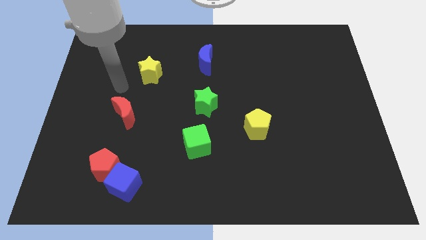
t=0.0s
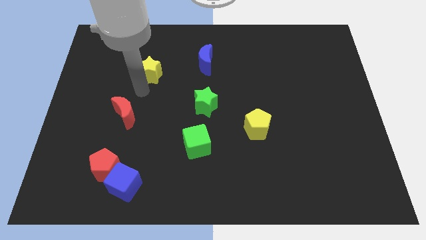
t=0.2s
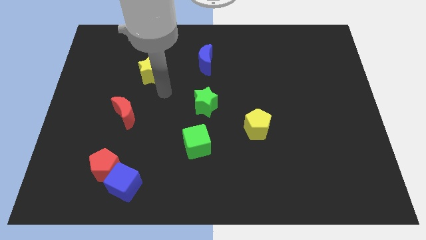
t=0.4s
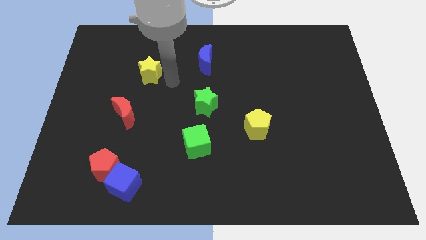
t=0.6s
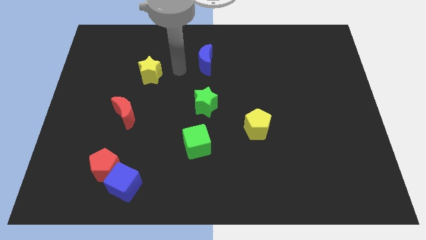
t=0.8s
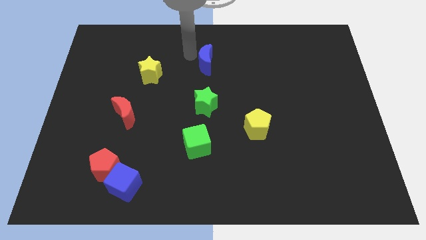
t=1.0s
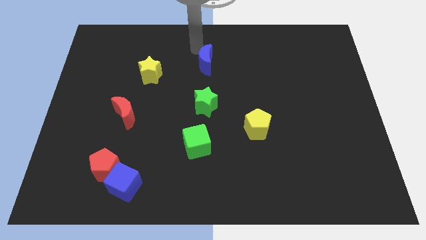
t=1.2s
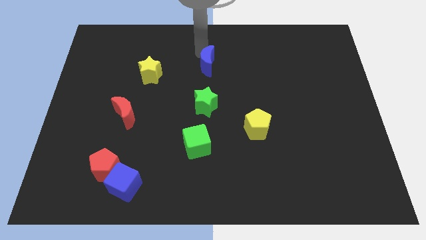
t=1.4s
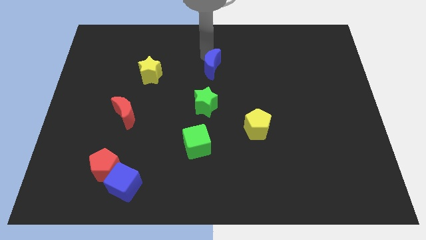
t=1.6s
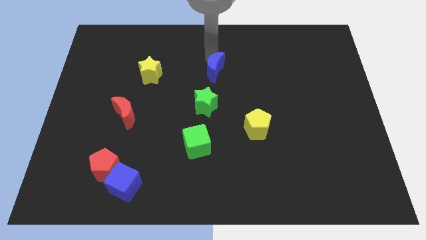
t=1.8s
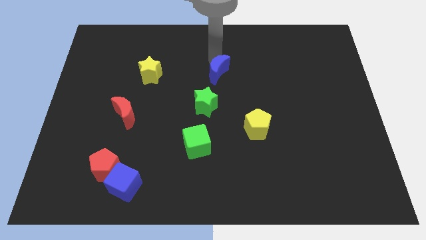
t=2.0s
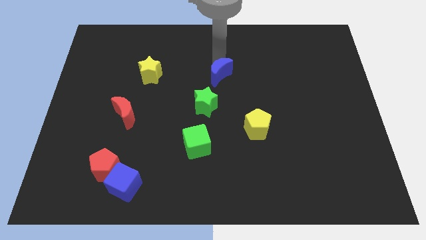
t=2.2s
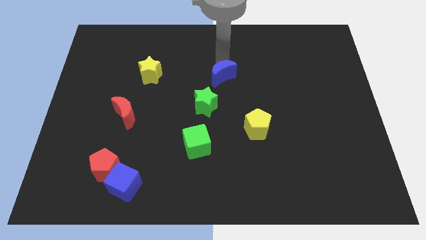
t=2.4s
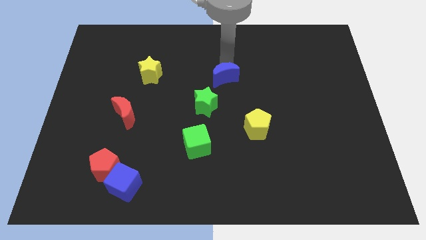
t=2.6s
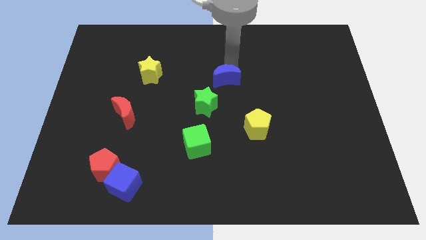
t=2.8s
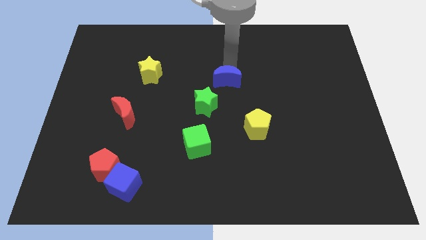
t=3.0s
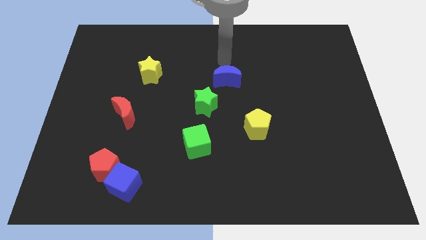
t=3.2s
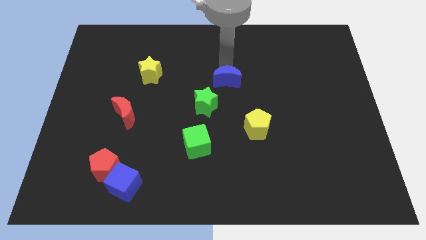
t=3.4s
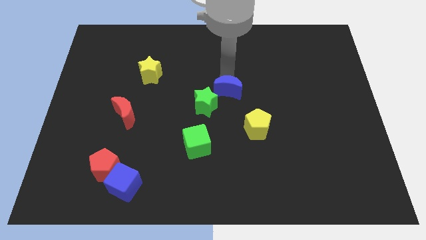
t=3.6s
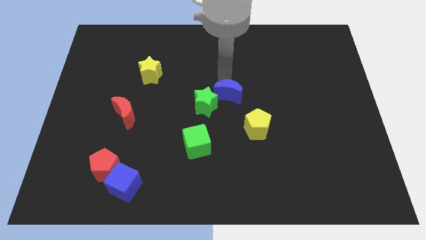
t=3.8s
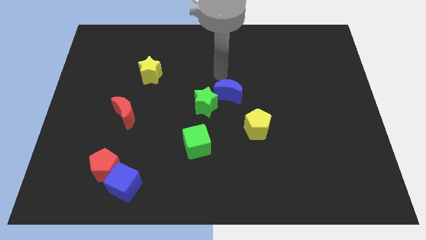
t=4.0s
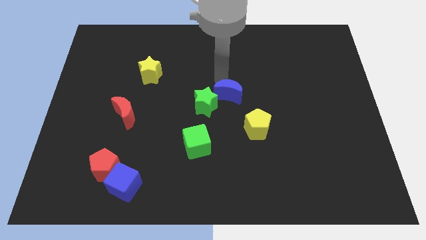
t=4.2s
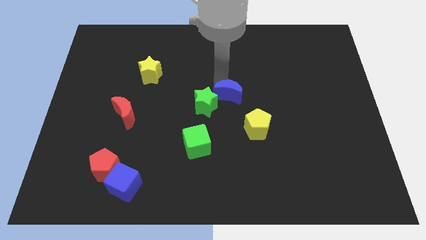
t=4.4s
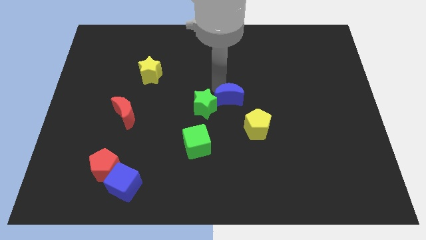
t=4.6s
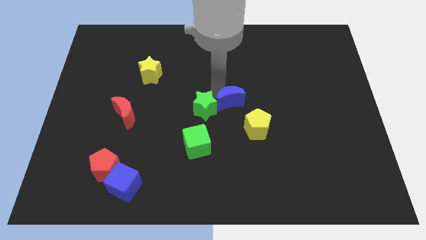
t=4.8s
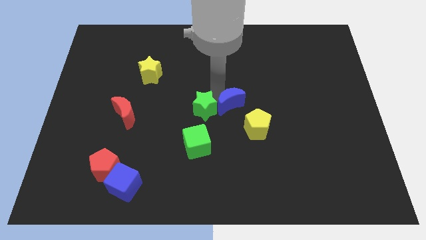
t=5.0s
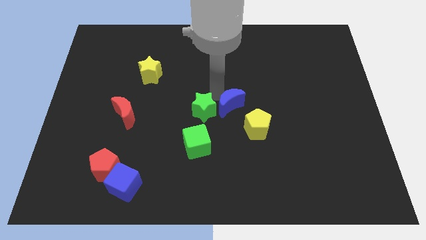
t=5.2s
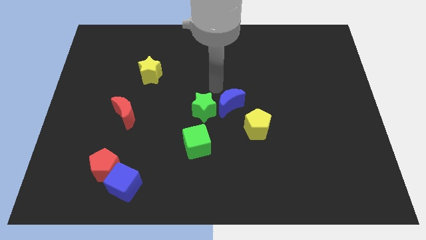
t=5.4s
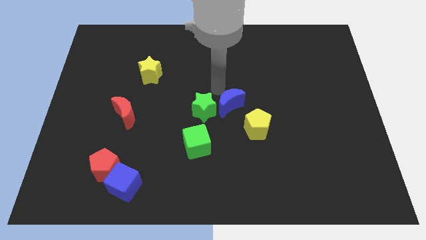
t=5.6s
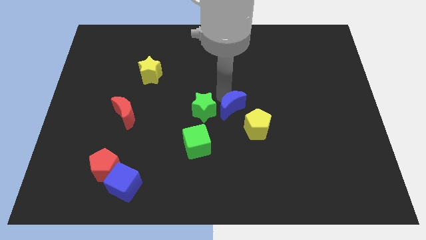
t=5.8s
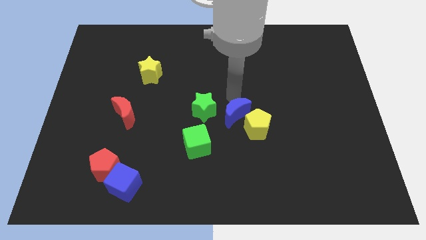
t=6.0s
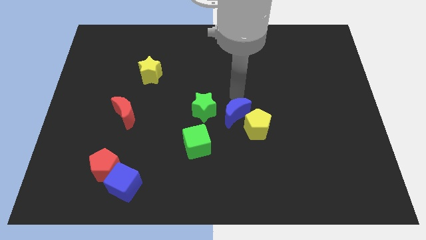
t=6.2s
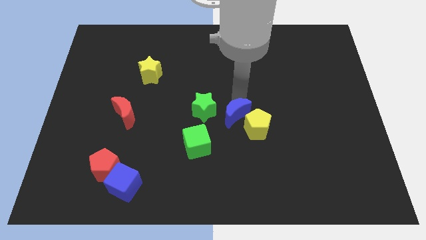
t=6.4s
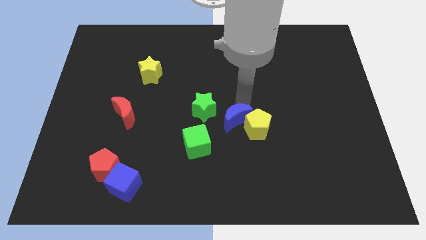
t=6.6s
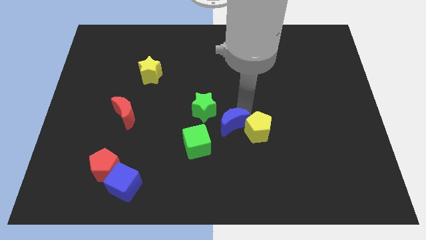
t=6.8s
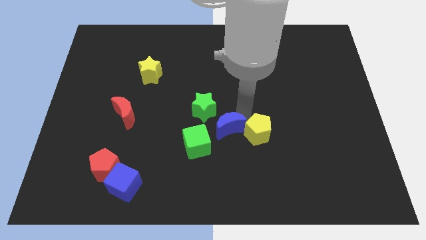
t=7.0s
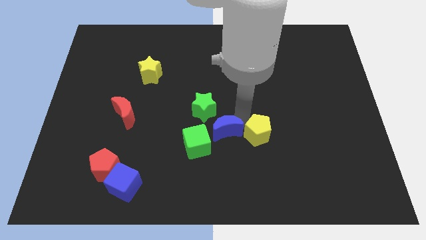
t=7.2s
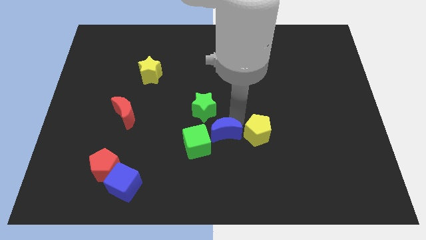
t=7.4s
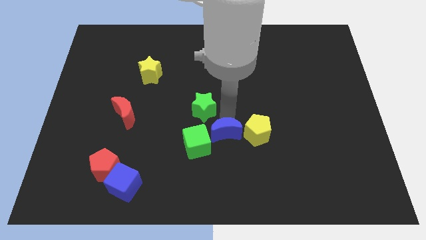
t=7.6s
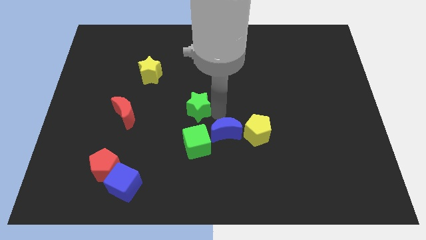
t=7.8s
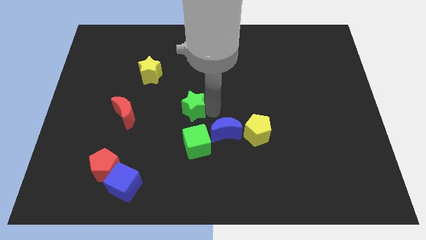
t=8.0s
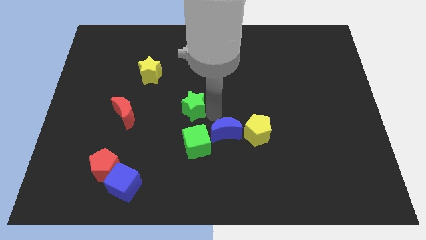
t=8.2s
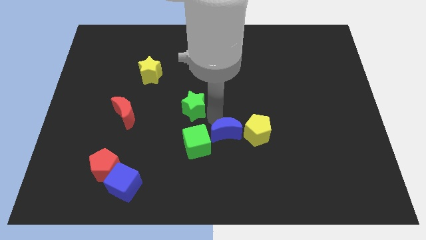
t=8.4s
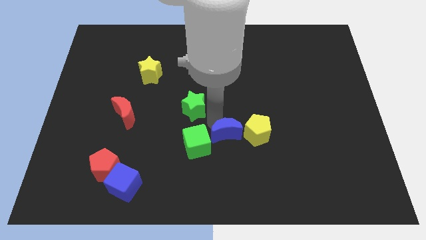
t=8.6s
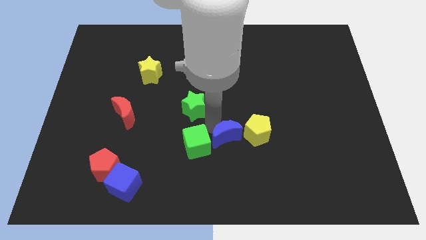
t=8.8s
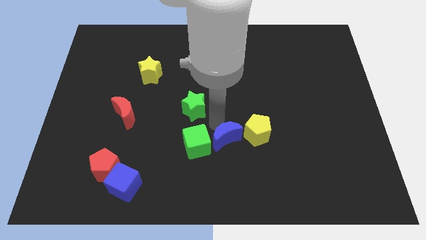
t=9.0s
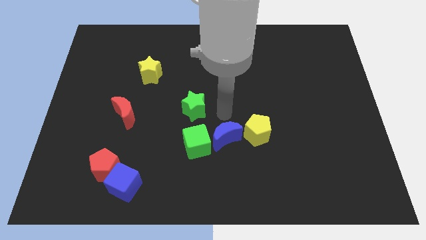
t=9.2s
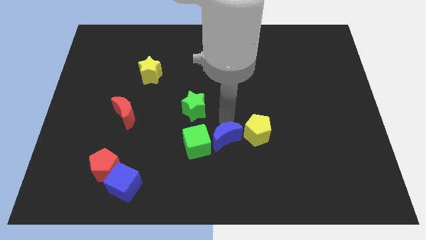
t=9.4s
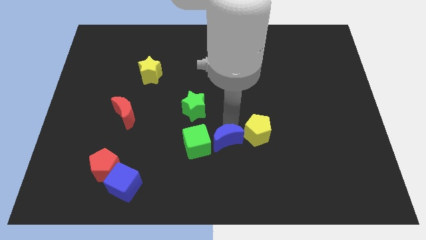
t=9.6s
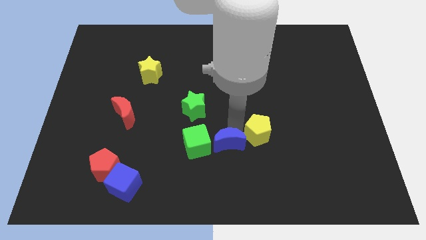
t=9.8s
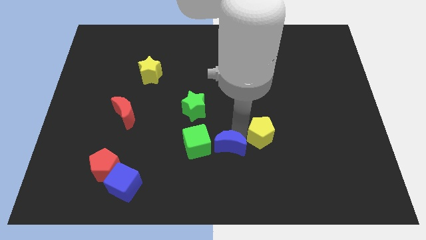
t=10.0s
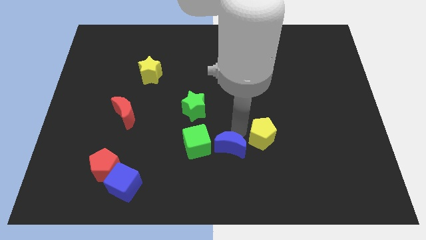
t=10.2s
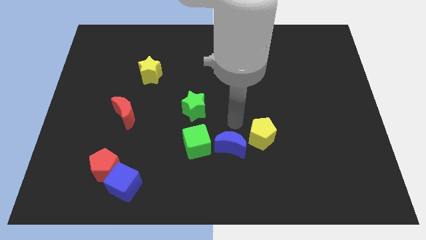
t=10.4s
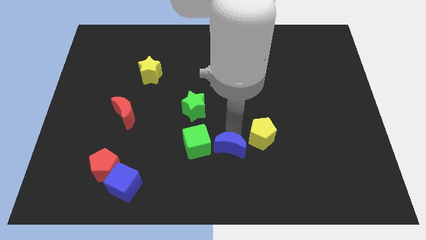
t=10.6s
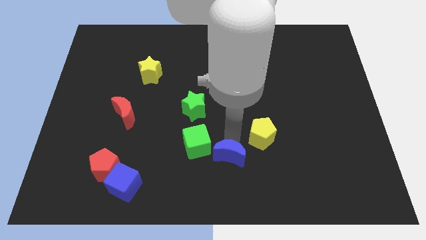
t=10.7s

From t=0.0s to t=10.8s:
push the blue moon to the bottom

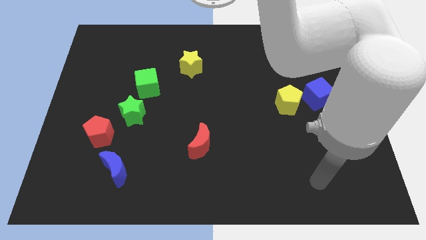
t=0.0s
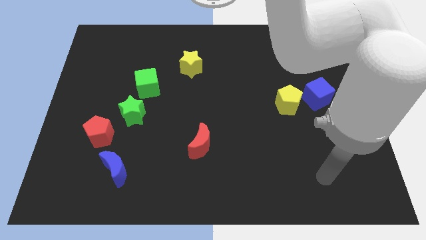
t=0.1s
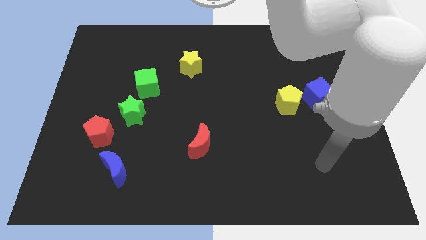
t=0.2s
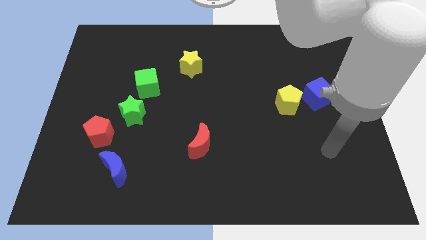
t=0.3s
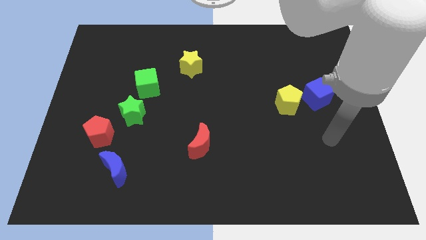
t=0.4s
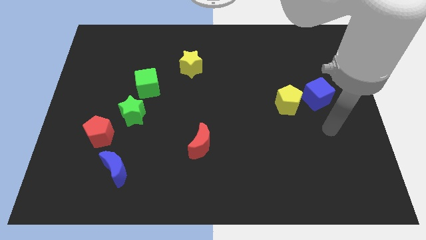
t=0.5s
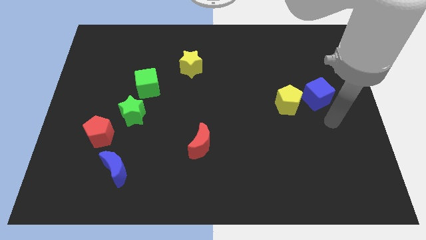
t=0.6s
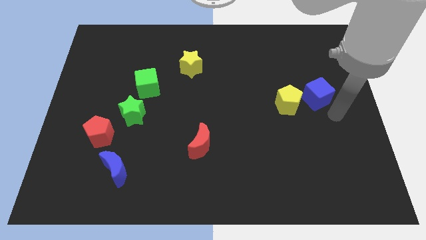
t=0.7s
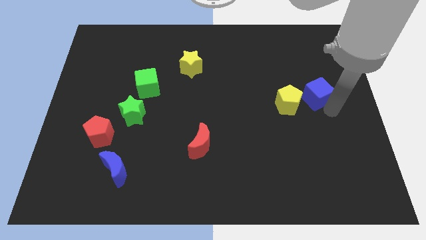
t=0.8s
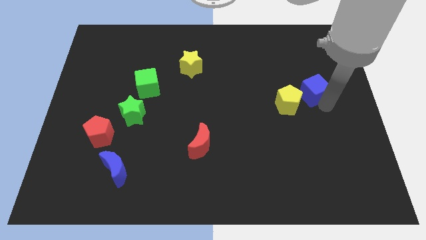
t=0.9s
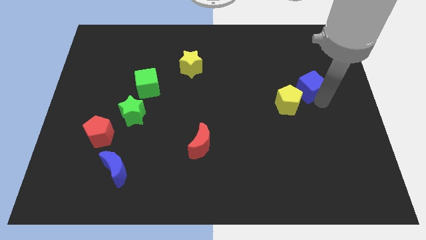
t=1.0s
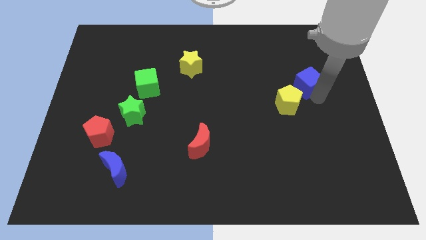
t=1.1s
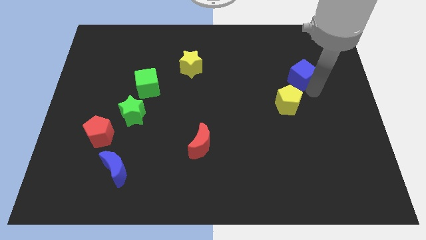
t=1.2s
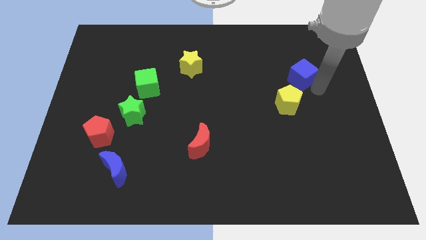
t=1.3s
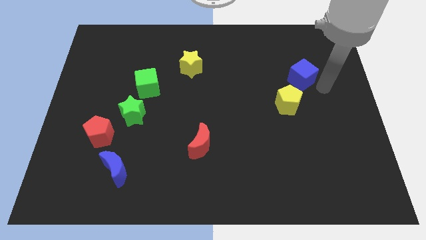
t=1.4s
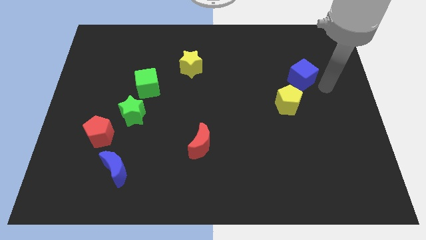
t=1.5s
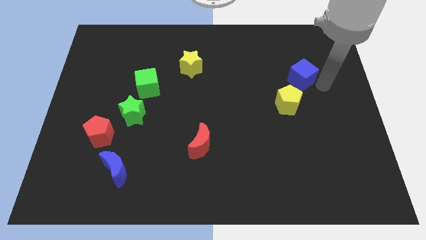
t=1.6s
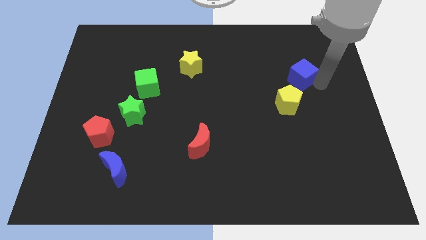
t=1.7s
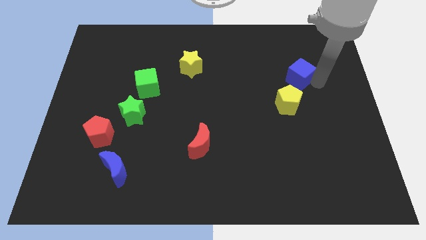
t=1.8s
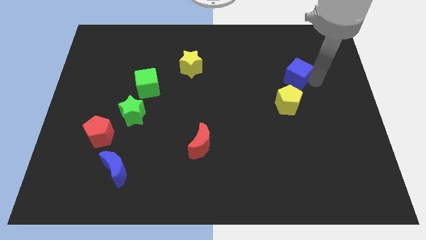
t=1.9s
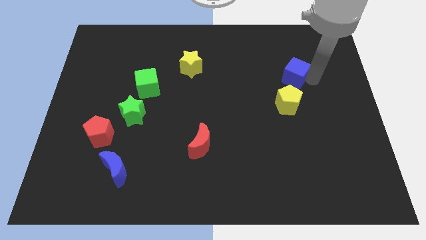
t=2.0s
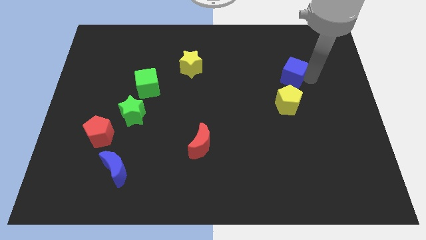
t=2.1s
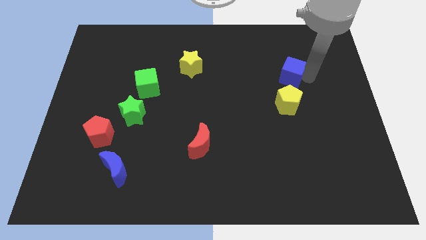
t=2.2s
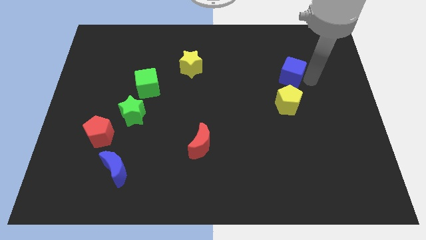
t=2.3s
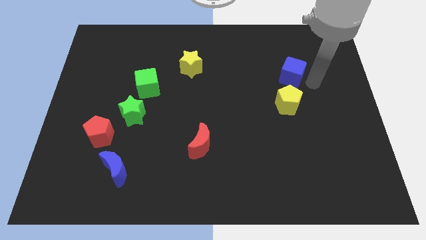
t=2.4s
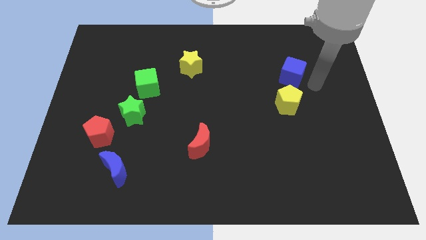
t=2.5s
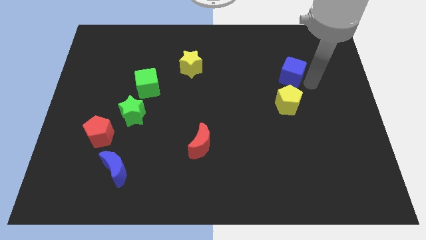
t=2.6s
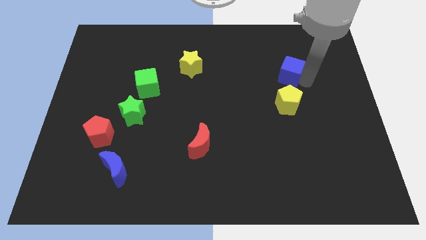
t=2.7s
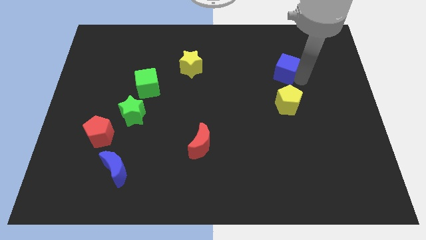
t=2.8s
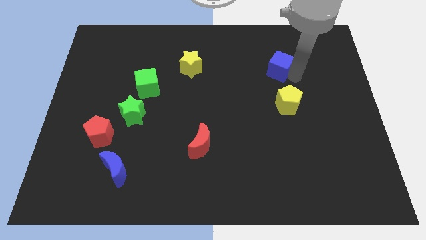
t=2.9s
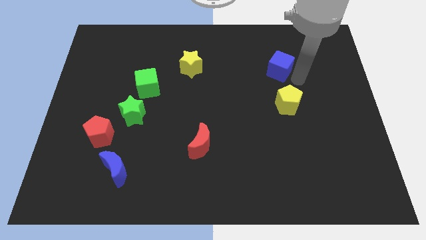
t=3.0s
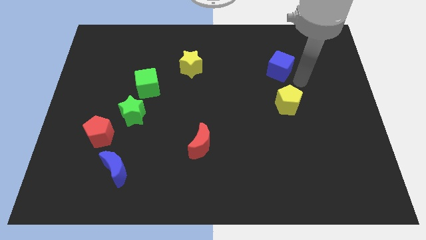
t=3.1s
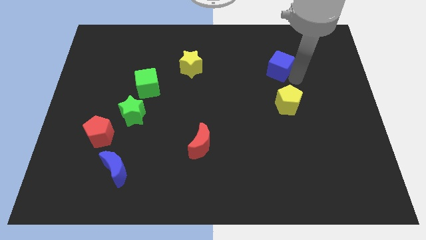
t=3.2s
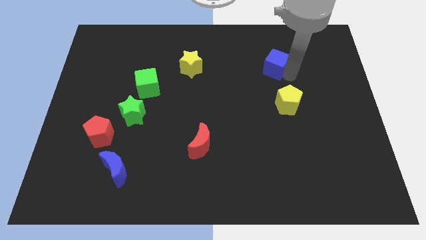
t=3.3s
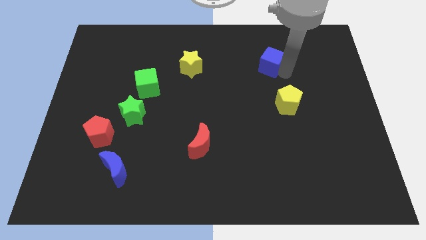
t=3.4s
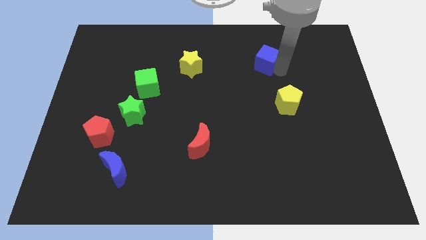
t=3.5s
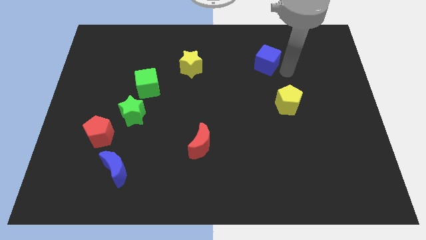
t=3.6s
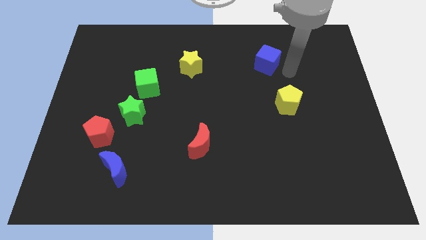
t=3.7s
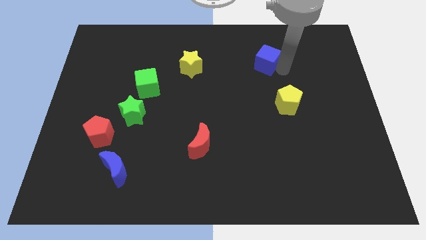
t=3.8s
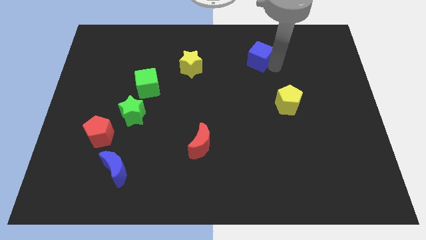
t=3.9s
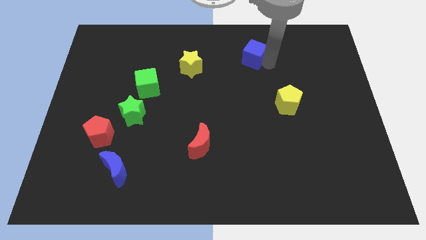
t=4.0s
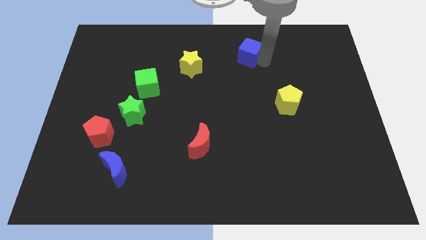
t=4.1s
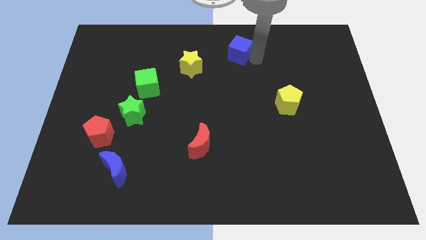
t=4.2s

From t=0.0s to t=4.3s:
push the blue cube to the top
